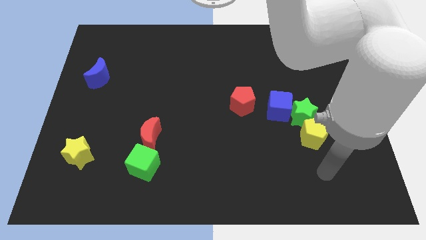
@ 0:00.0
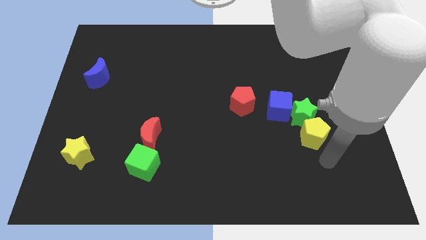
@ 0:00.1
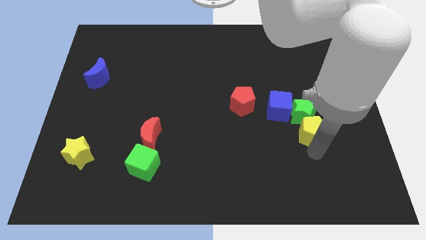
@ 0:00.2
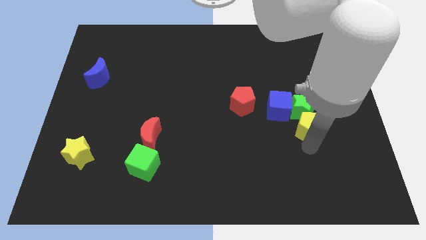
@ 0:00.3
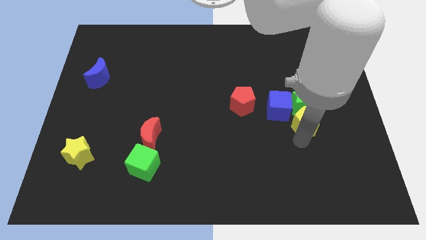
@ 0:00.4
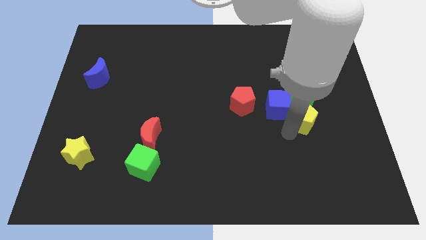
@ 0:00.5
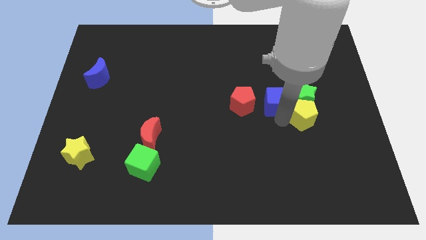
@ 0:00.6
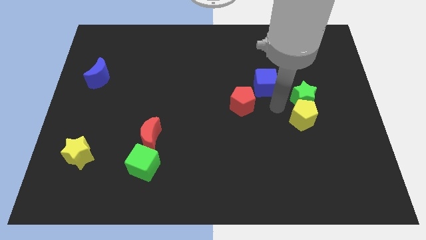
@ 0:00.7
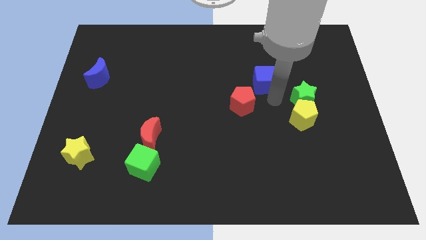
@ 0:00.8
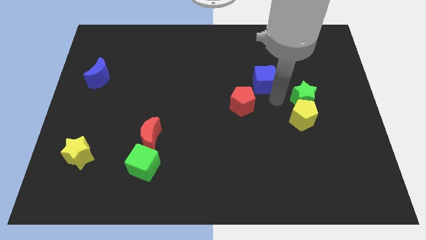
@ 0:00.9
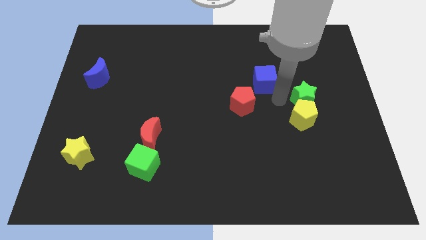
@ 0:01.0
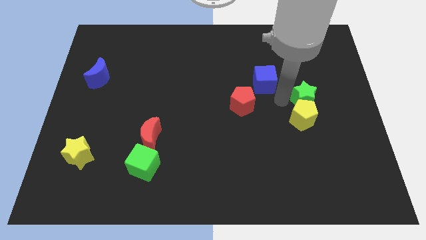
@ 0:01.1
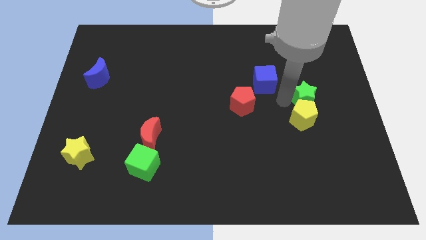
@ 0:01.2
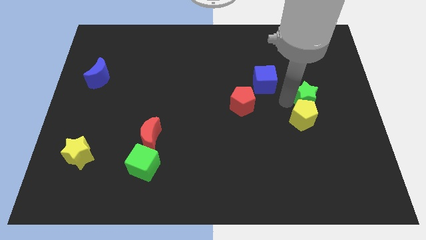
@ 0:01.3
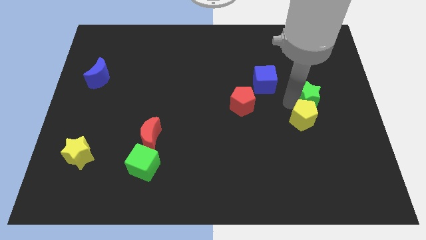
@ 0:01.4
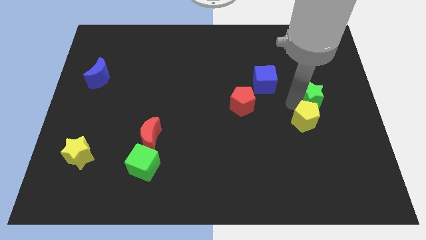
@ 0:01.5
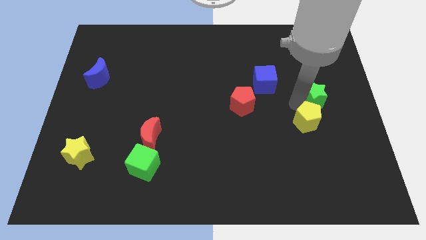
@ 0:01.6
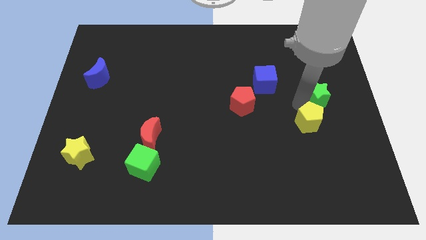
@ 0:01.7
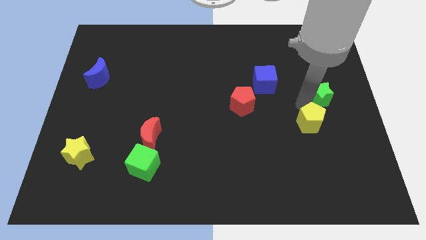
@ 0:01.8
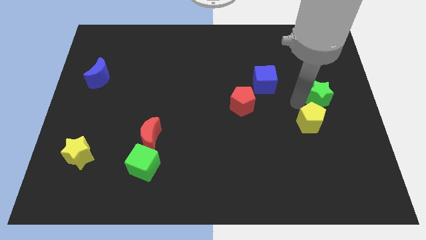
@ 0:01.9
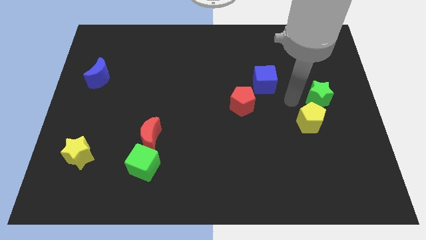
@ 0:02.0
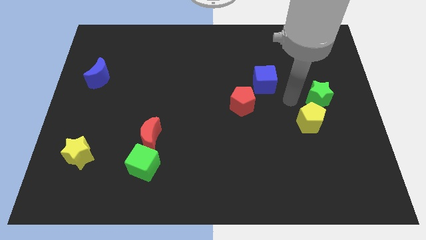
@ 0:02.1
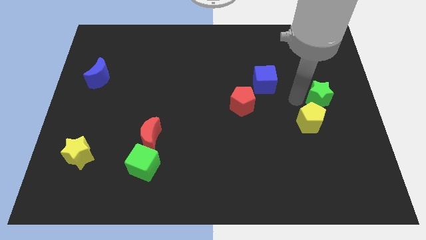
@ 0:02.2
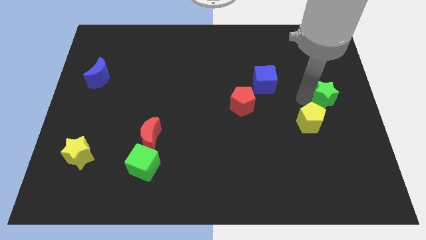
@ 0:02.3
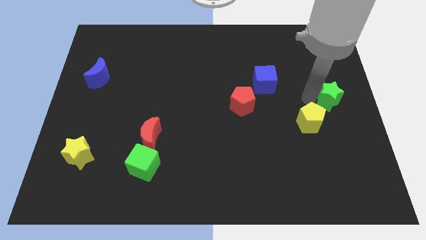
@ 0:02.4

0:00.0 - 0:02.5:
separate the green star from the blue cube and yellow pentagon

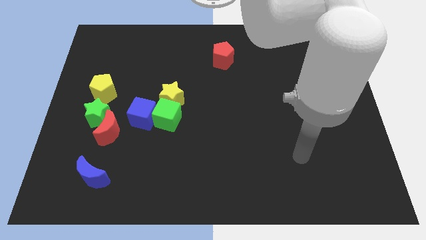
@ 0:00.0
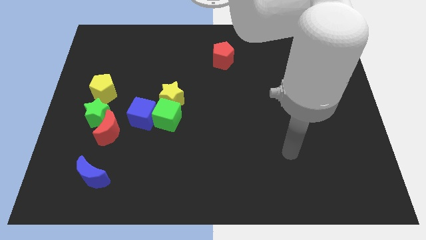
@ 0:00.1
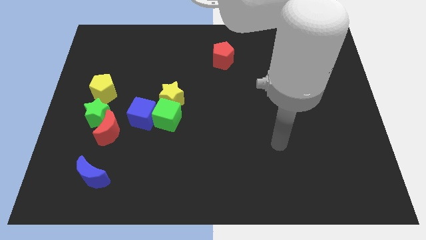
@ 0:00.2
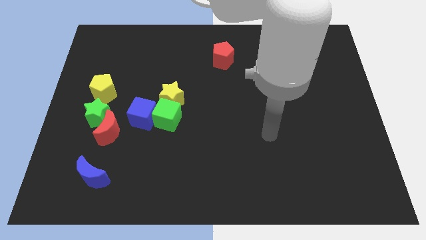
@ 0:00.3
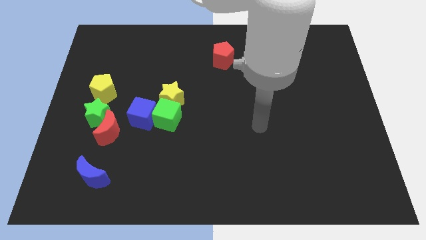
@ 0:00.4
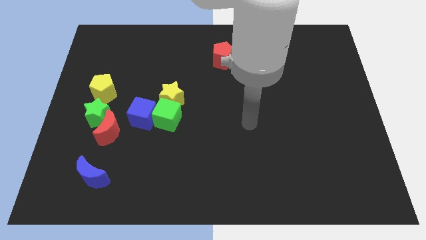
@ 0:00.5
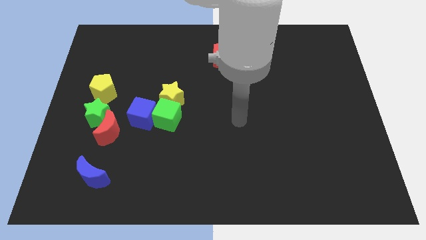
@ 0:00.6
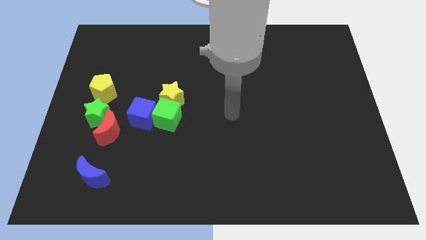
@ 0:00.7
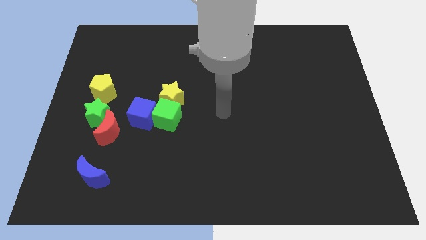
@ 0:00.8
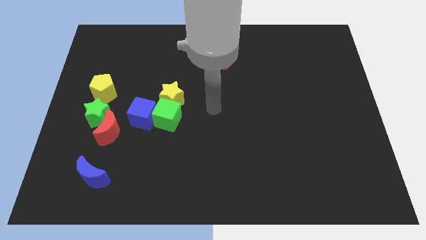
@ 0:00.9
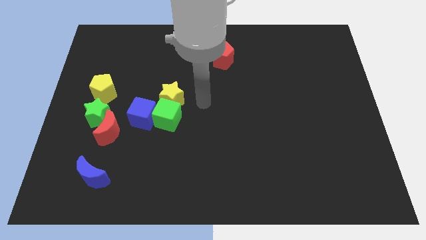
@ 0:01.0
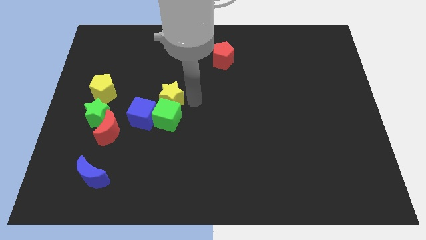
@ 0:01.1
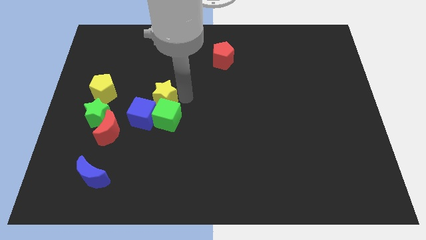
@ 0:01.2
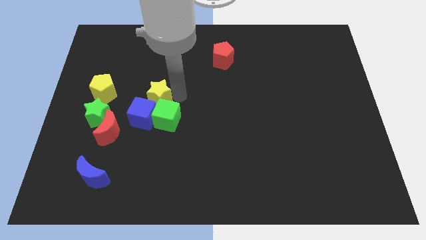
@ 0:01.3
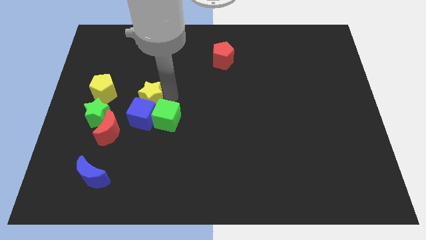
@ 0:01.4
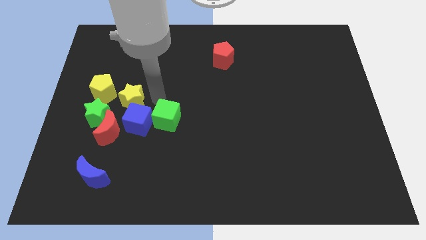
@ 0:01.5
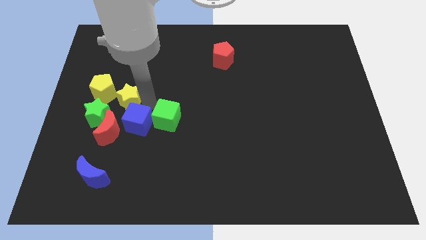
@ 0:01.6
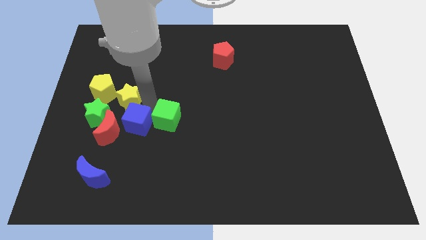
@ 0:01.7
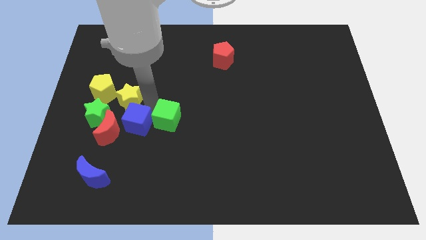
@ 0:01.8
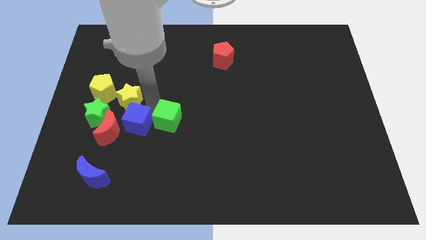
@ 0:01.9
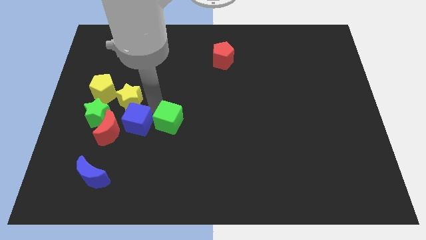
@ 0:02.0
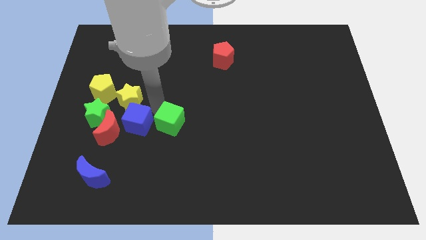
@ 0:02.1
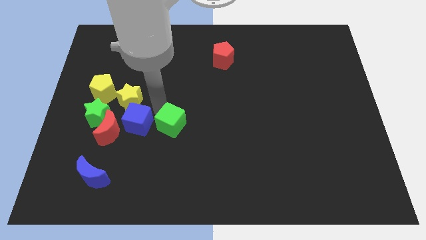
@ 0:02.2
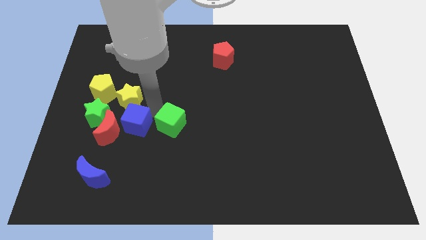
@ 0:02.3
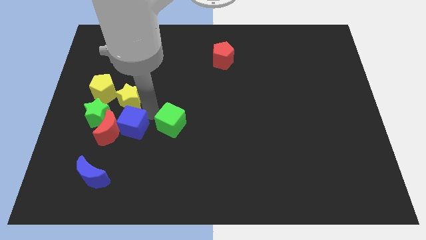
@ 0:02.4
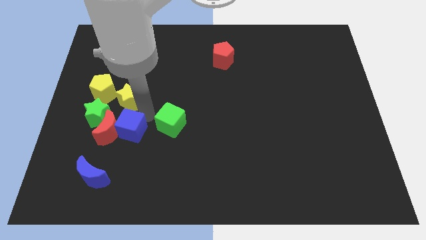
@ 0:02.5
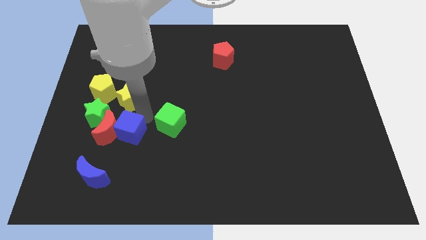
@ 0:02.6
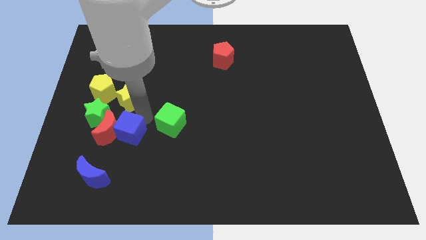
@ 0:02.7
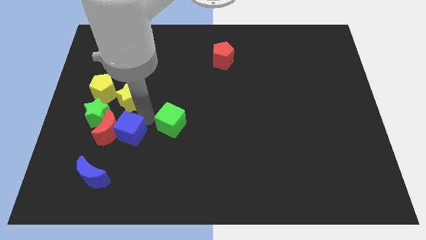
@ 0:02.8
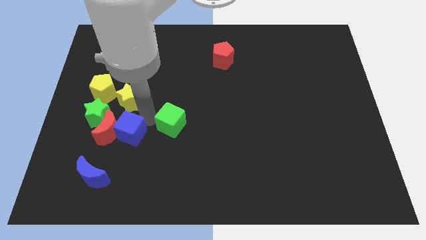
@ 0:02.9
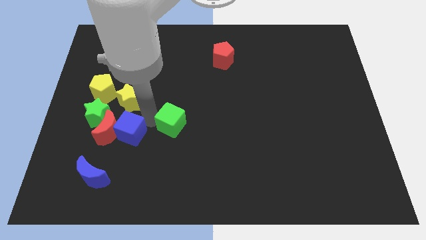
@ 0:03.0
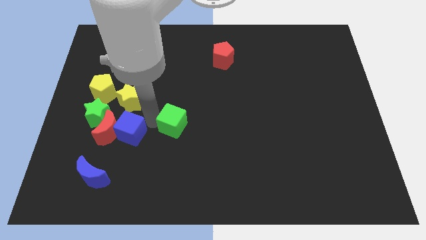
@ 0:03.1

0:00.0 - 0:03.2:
separate the green cube from the blue cube and yellow star

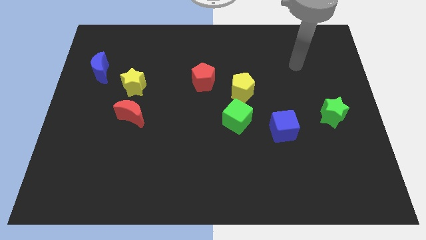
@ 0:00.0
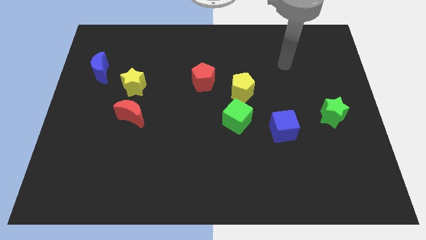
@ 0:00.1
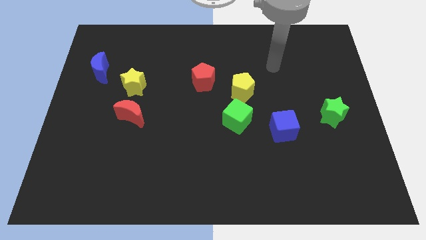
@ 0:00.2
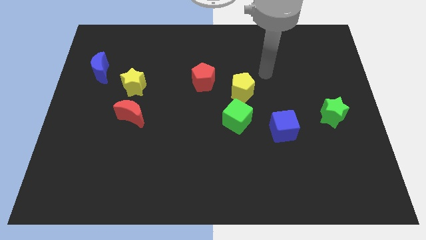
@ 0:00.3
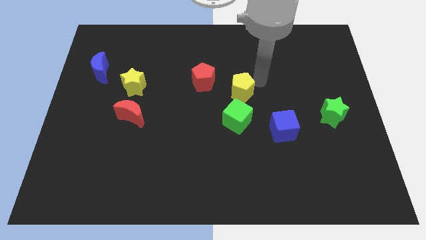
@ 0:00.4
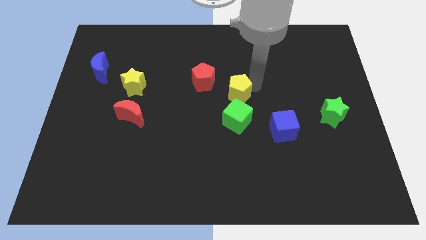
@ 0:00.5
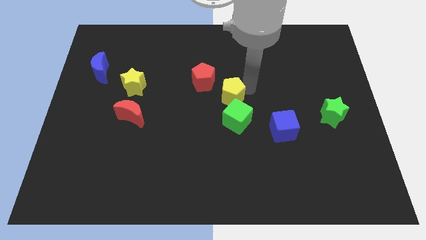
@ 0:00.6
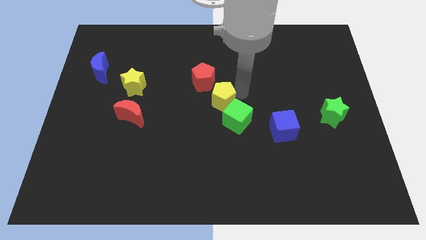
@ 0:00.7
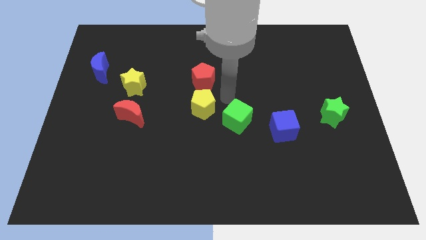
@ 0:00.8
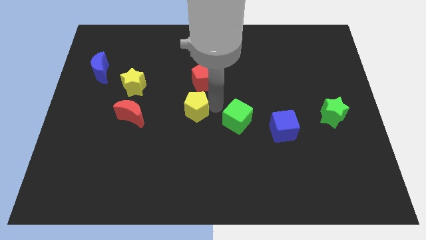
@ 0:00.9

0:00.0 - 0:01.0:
move the green cube away from the yellow pentagon

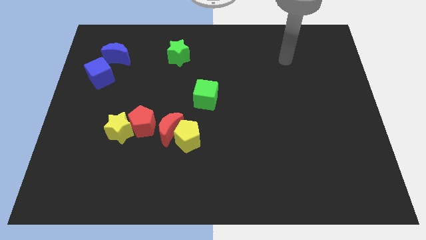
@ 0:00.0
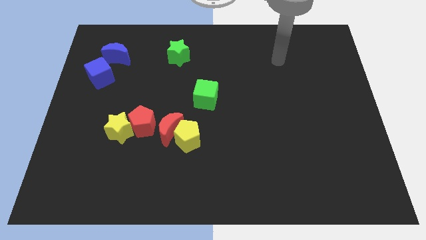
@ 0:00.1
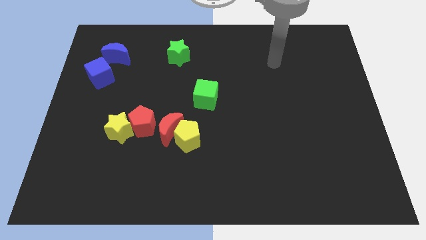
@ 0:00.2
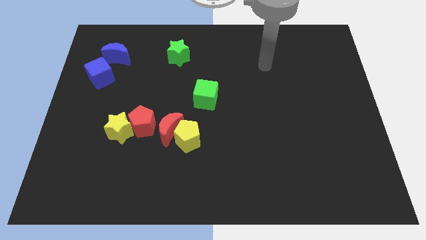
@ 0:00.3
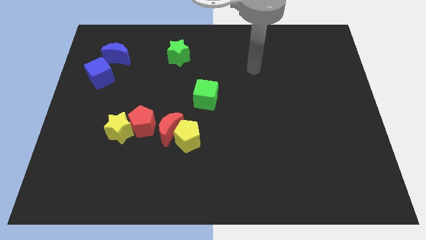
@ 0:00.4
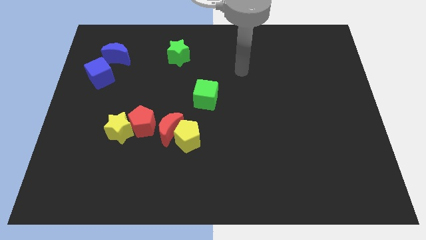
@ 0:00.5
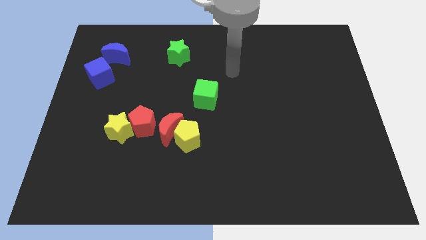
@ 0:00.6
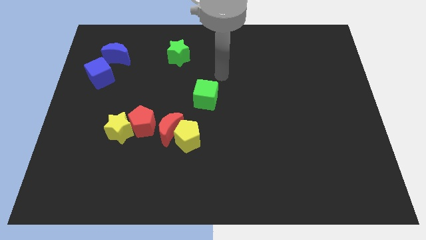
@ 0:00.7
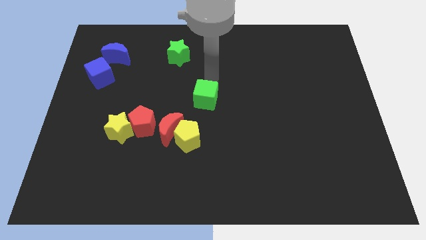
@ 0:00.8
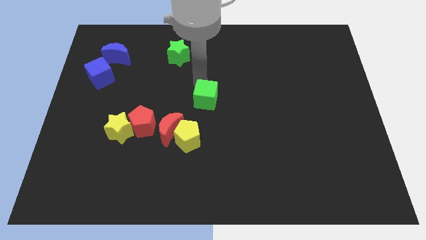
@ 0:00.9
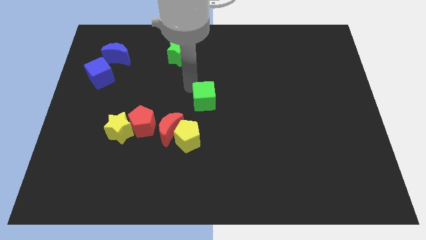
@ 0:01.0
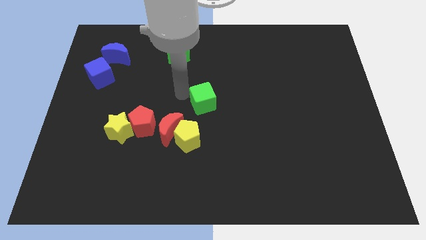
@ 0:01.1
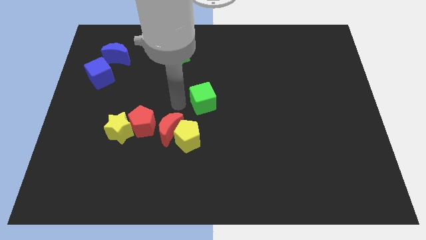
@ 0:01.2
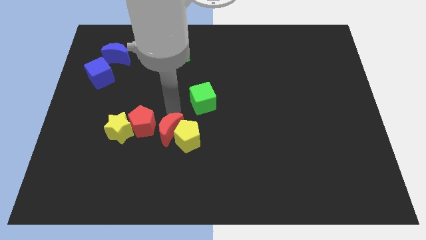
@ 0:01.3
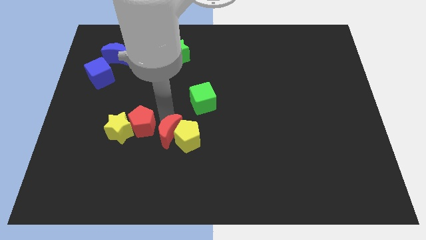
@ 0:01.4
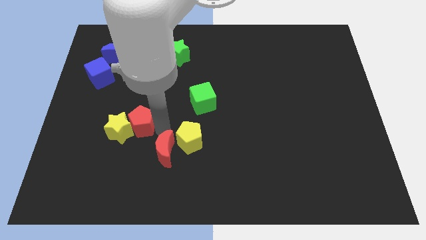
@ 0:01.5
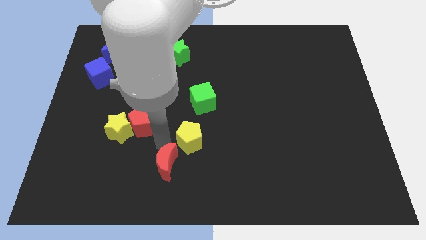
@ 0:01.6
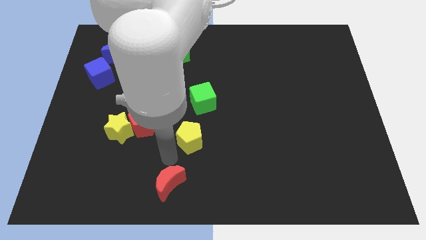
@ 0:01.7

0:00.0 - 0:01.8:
move the yellow pentagon away from the red moon

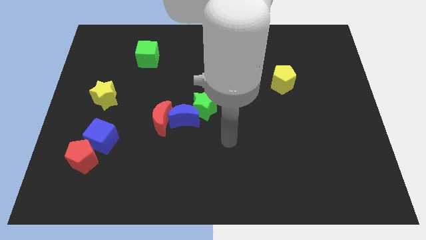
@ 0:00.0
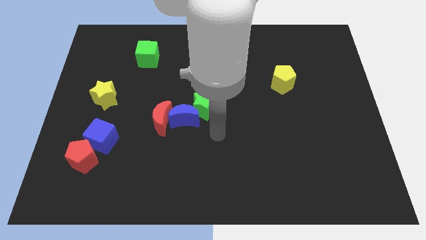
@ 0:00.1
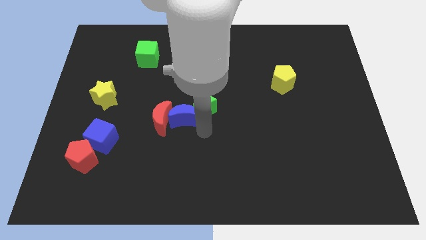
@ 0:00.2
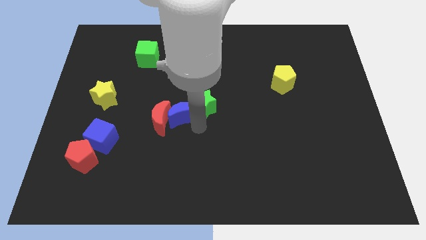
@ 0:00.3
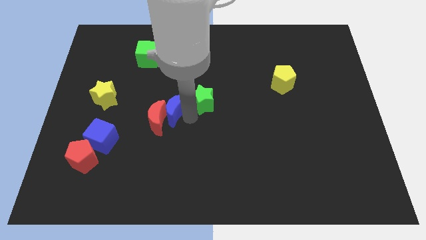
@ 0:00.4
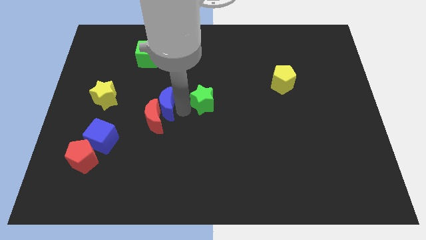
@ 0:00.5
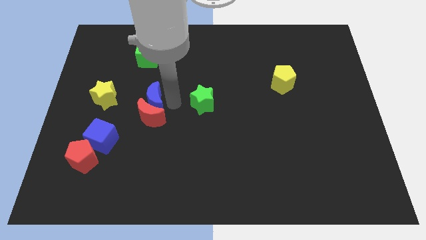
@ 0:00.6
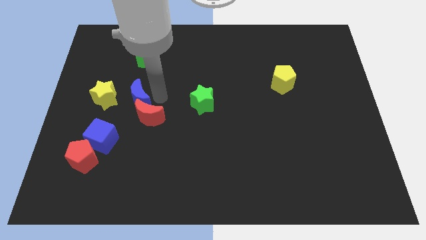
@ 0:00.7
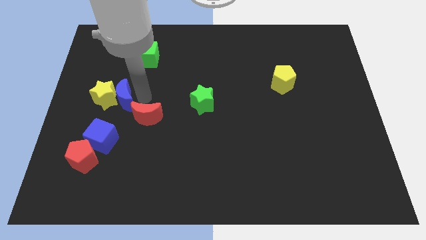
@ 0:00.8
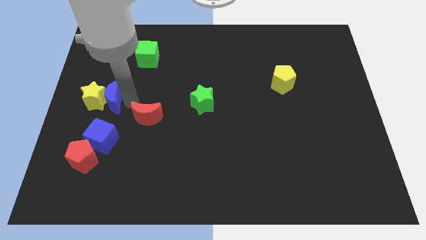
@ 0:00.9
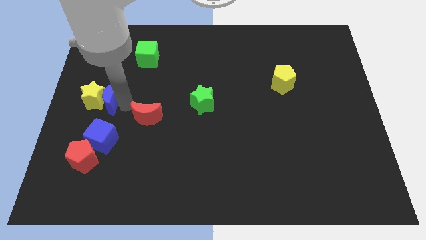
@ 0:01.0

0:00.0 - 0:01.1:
pull the red moon apart from the blue moon
